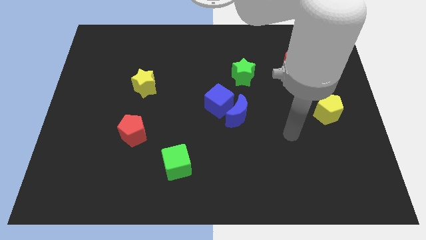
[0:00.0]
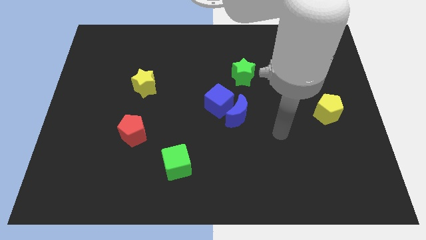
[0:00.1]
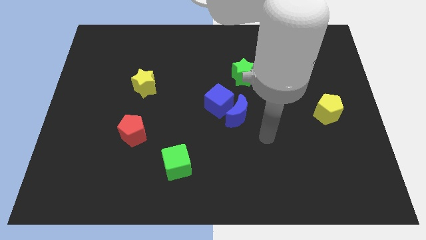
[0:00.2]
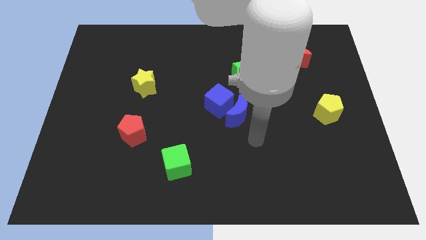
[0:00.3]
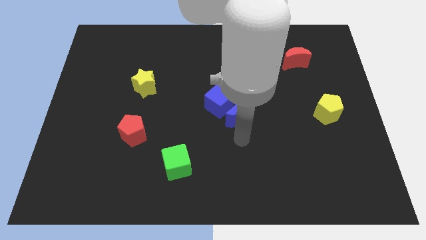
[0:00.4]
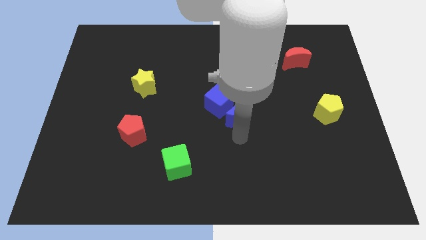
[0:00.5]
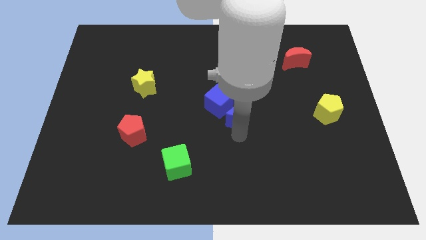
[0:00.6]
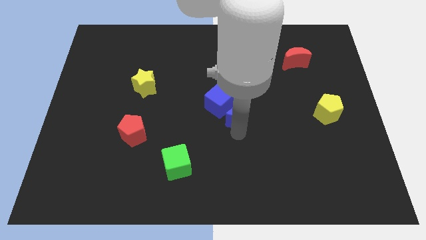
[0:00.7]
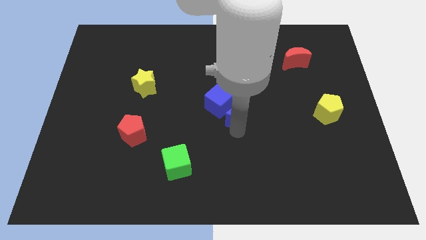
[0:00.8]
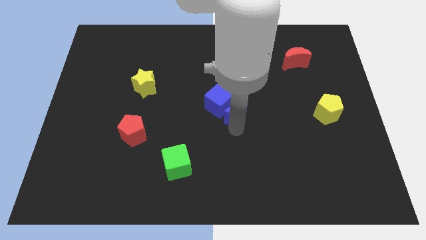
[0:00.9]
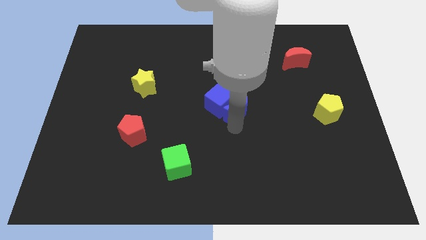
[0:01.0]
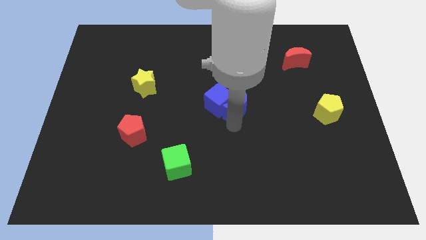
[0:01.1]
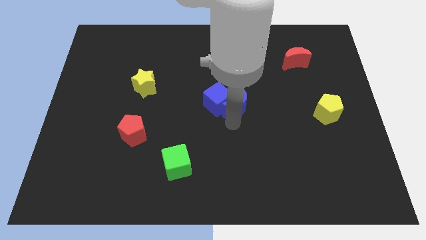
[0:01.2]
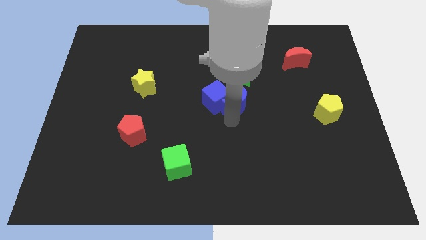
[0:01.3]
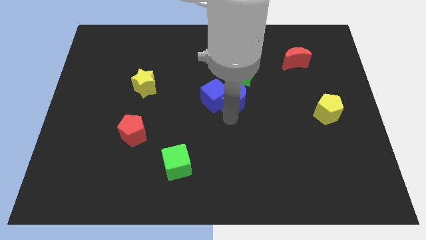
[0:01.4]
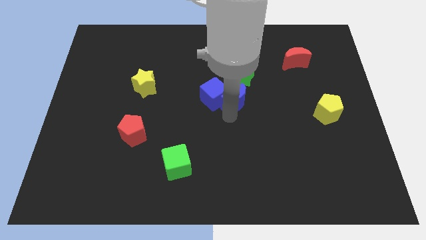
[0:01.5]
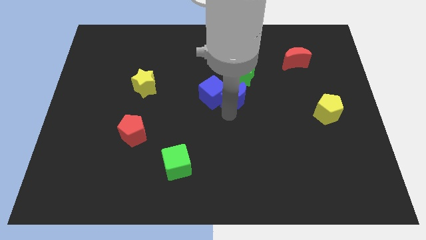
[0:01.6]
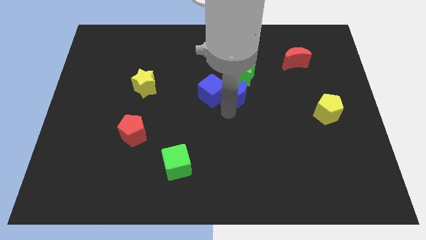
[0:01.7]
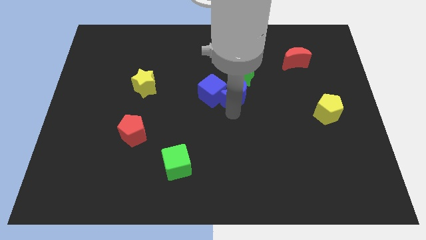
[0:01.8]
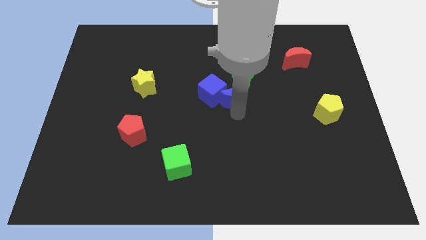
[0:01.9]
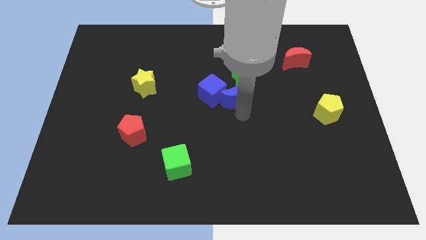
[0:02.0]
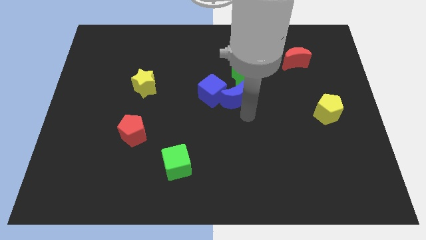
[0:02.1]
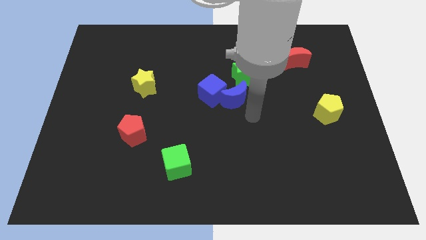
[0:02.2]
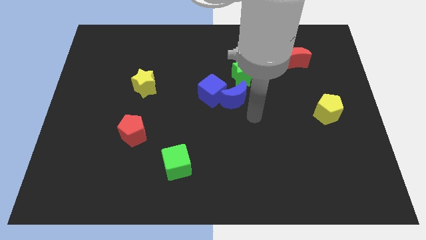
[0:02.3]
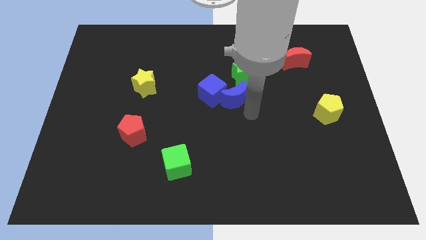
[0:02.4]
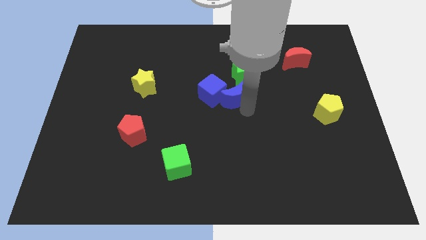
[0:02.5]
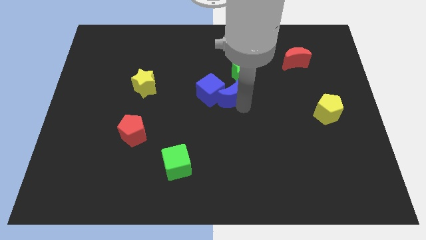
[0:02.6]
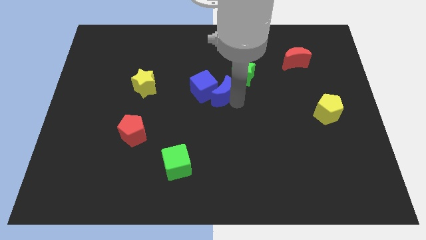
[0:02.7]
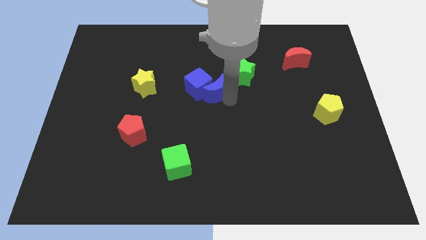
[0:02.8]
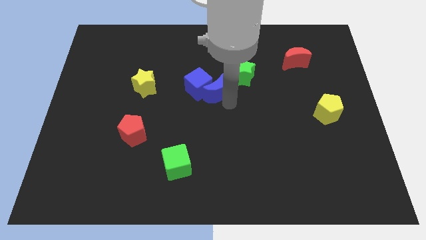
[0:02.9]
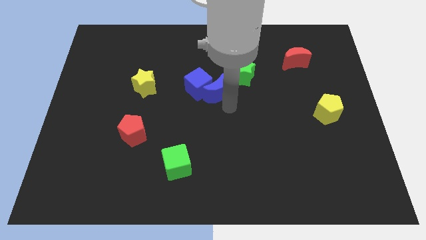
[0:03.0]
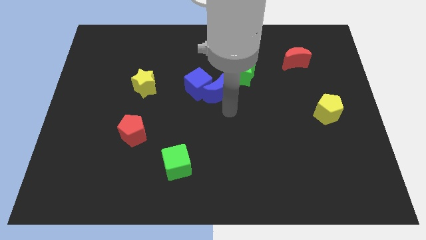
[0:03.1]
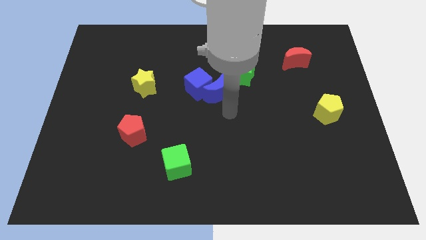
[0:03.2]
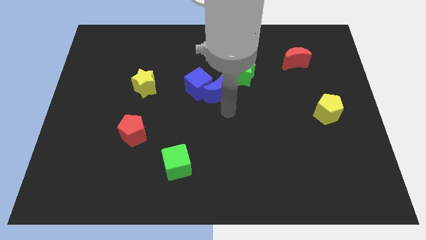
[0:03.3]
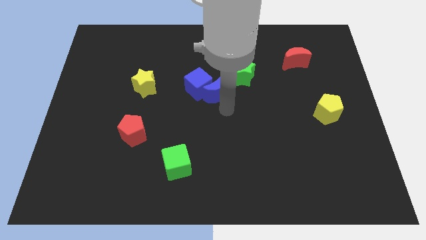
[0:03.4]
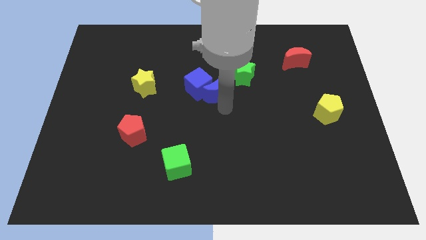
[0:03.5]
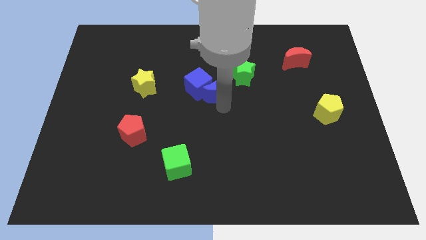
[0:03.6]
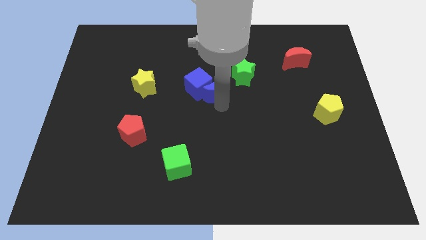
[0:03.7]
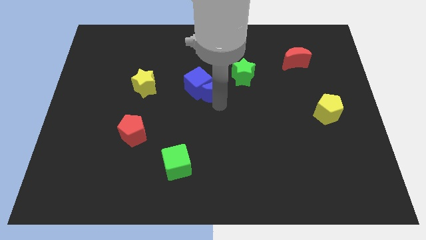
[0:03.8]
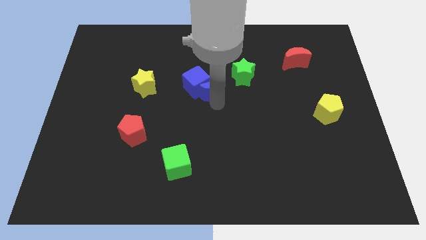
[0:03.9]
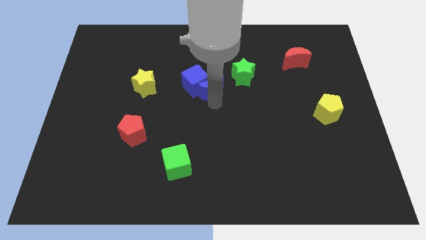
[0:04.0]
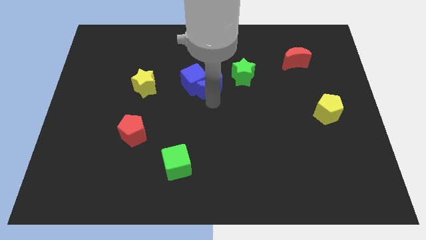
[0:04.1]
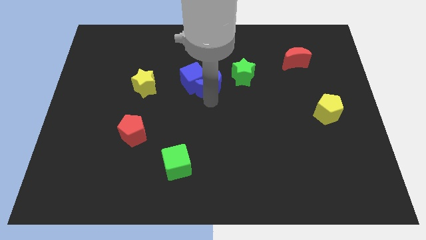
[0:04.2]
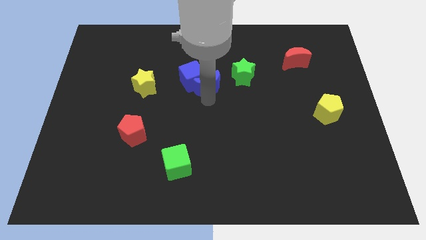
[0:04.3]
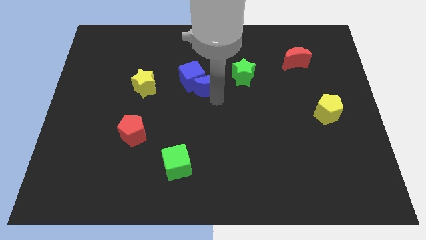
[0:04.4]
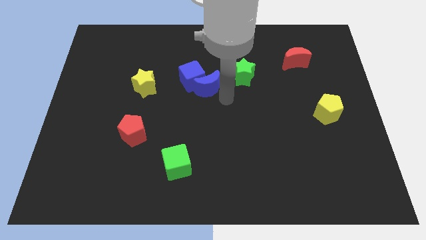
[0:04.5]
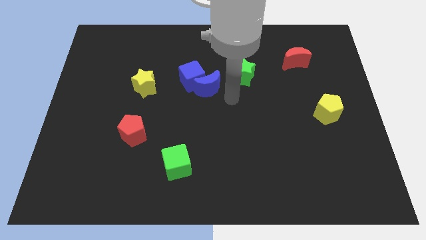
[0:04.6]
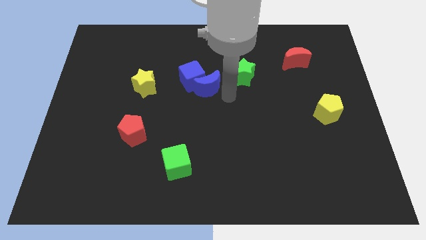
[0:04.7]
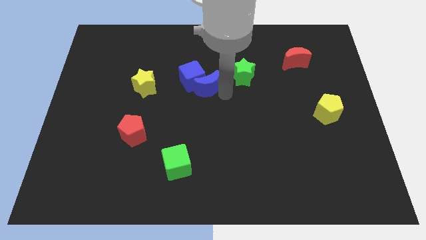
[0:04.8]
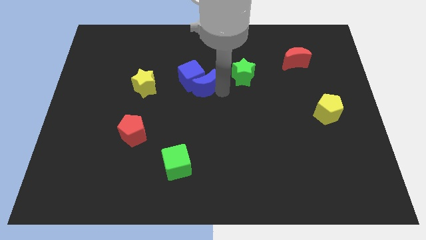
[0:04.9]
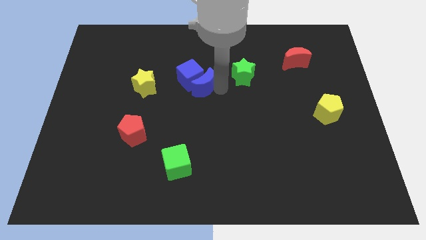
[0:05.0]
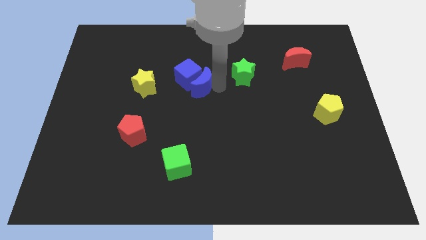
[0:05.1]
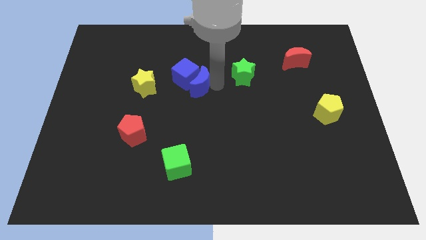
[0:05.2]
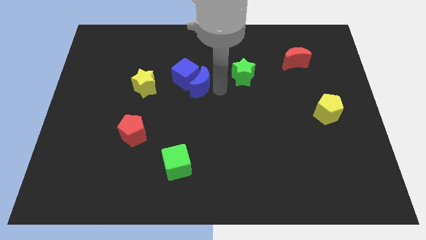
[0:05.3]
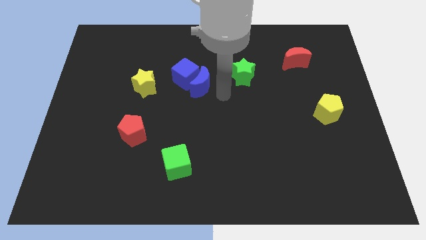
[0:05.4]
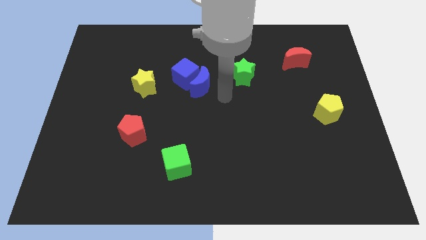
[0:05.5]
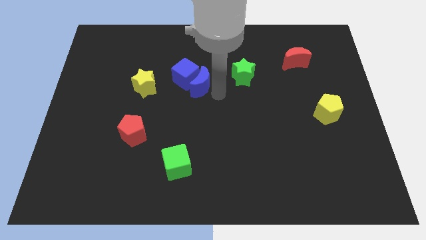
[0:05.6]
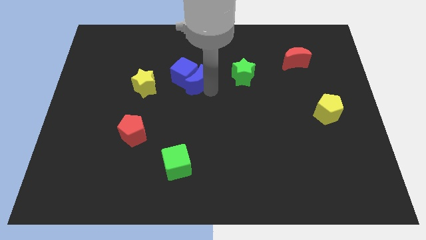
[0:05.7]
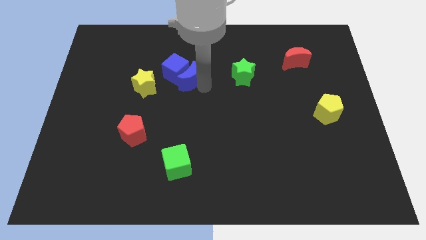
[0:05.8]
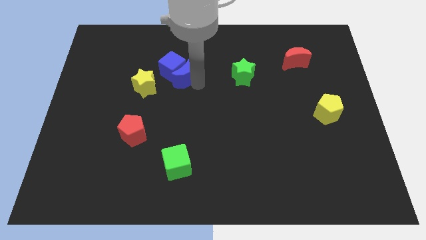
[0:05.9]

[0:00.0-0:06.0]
push the blue moon to the top right side of the yellow star

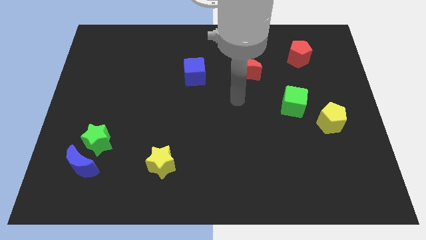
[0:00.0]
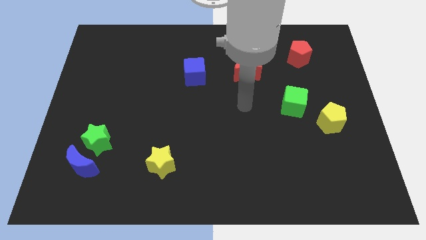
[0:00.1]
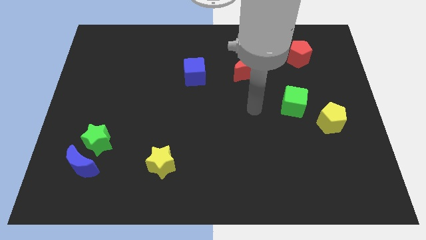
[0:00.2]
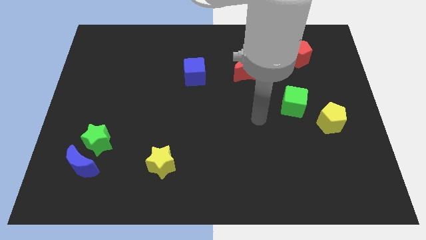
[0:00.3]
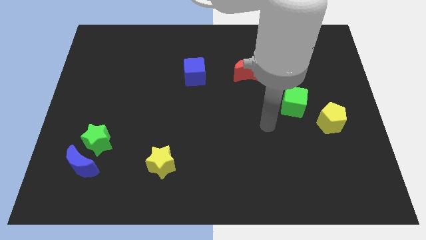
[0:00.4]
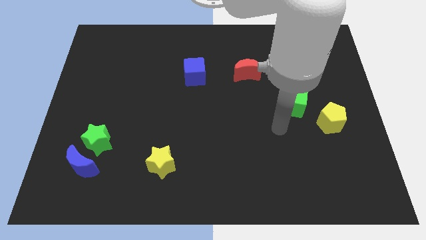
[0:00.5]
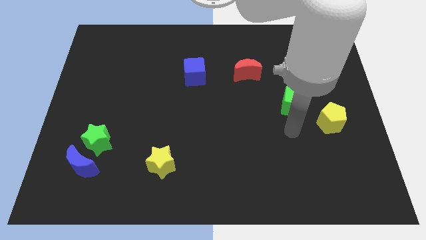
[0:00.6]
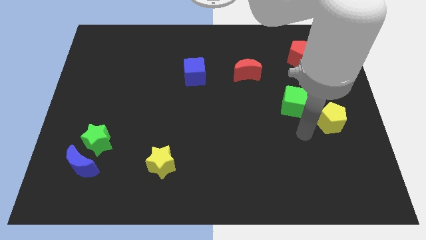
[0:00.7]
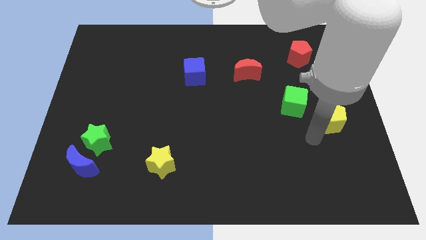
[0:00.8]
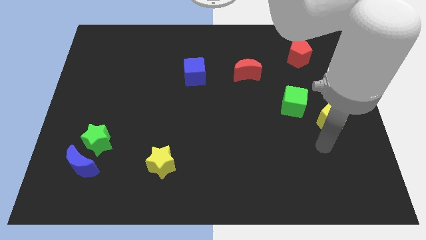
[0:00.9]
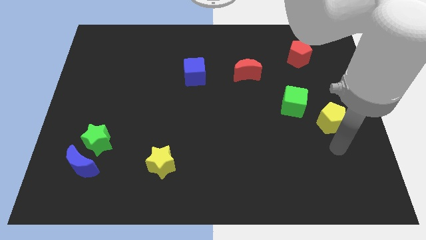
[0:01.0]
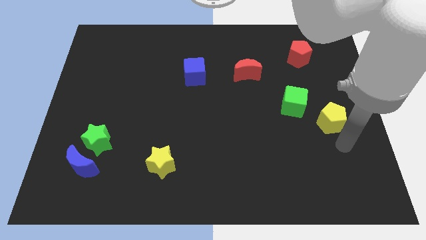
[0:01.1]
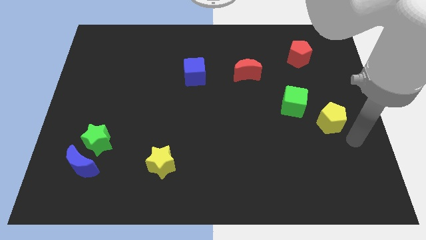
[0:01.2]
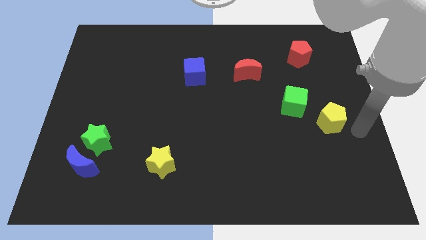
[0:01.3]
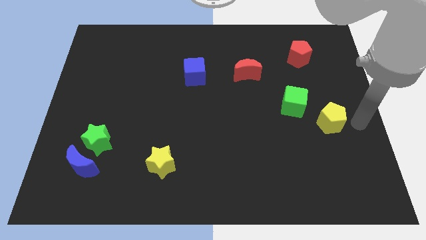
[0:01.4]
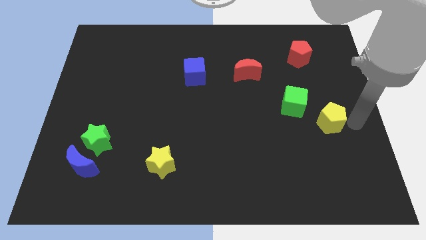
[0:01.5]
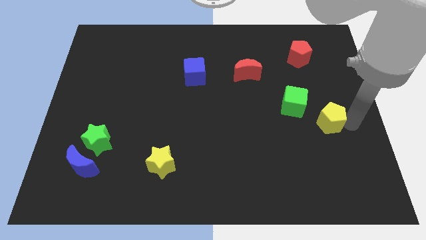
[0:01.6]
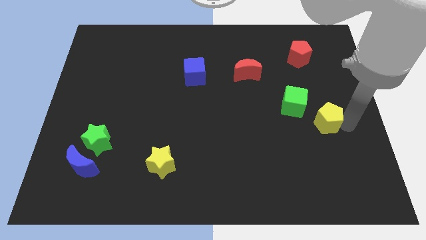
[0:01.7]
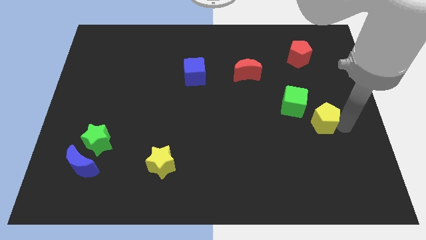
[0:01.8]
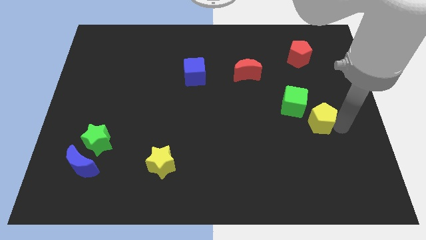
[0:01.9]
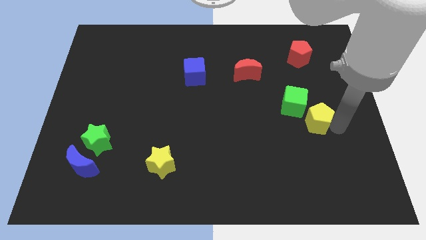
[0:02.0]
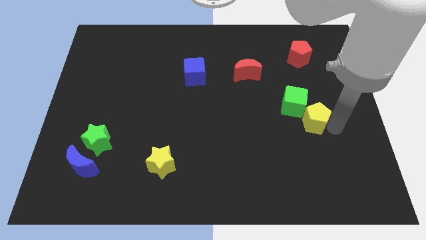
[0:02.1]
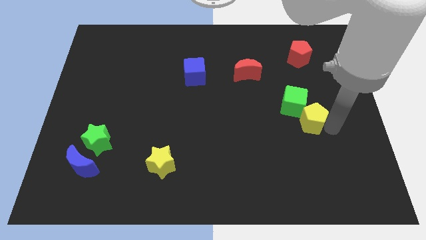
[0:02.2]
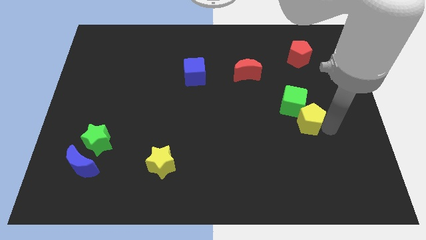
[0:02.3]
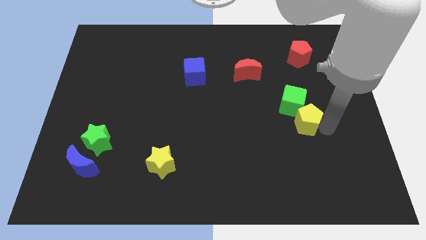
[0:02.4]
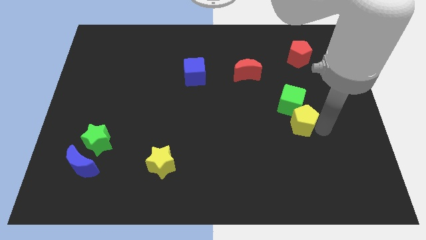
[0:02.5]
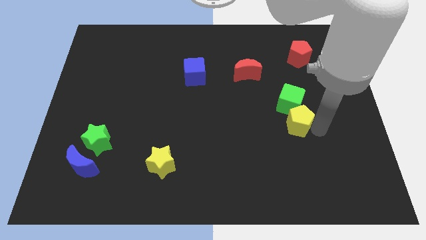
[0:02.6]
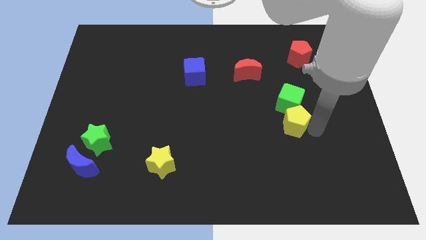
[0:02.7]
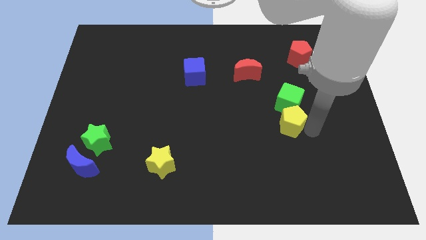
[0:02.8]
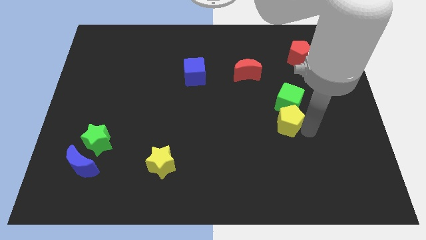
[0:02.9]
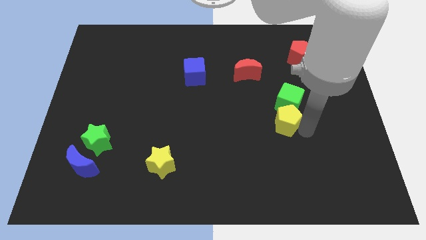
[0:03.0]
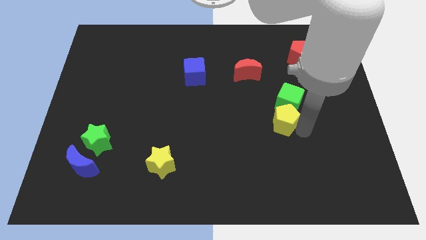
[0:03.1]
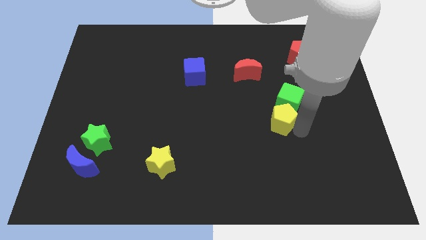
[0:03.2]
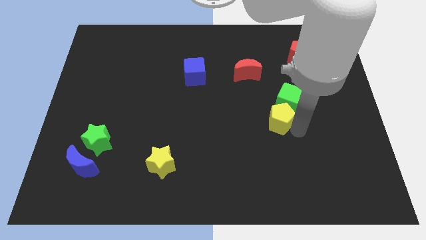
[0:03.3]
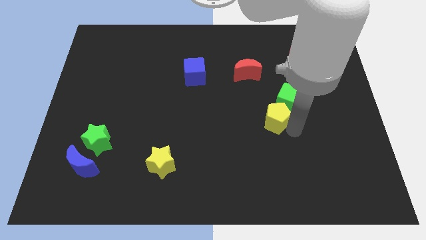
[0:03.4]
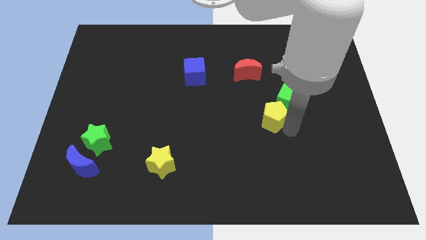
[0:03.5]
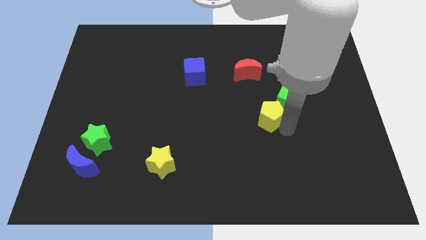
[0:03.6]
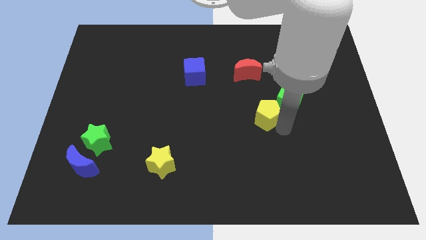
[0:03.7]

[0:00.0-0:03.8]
slide the yellow pentagon below the red moon
